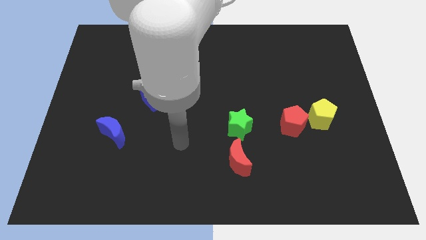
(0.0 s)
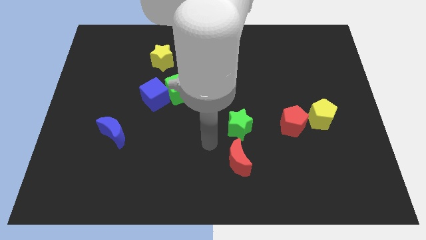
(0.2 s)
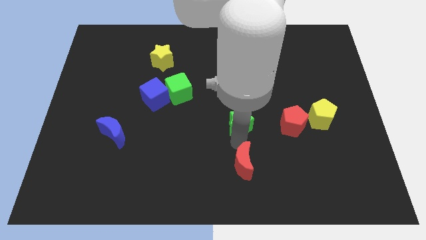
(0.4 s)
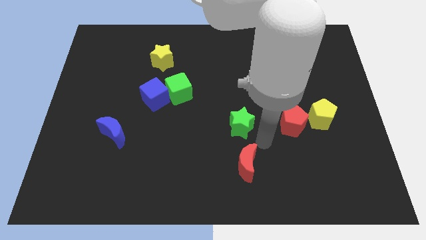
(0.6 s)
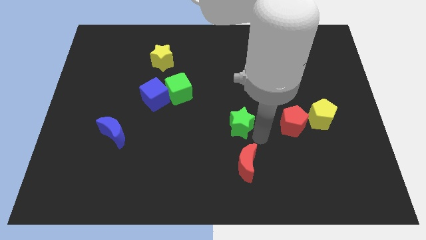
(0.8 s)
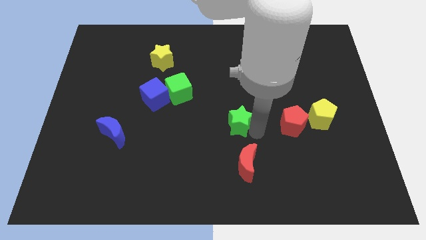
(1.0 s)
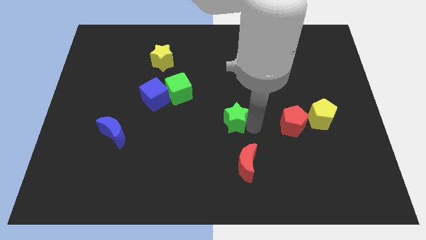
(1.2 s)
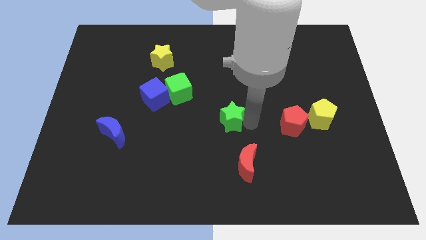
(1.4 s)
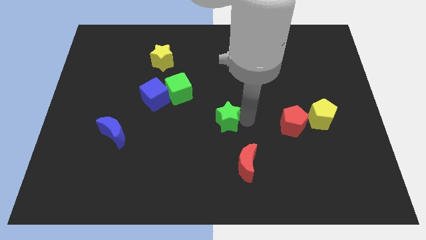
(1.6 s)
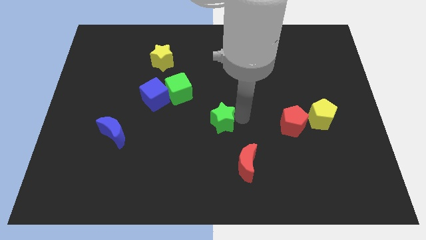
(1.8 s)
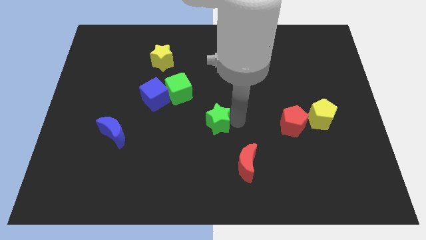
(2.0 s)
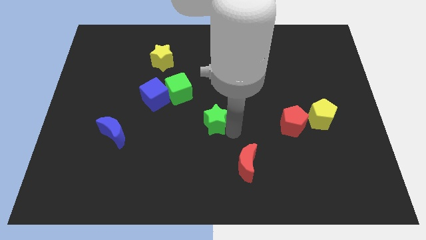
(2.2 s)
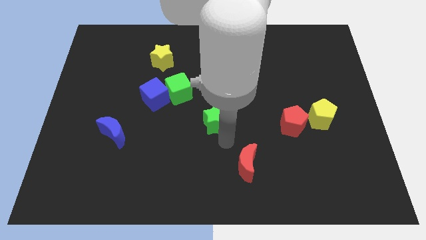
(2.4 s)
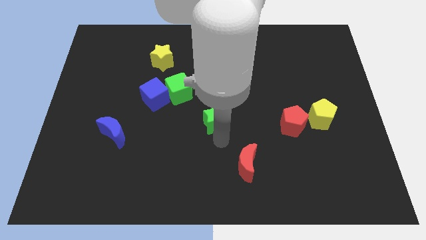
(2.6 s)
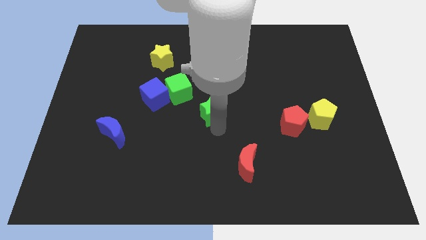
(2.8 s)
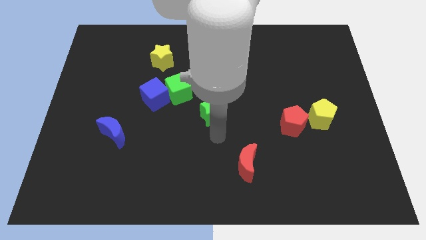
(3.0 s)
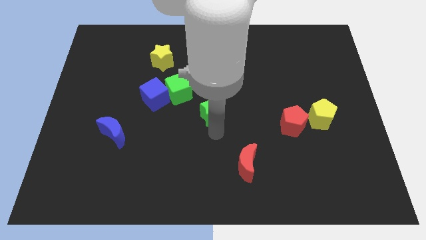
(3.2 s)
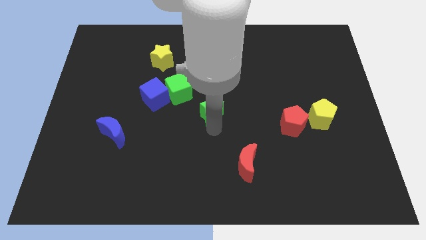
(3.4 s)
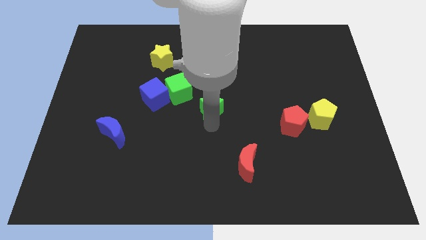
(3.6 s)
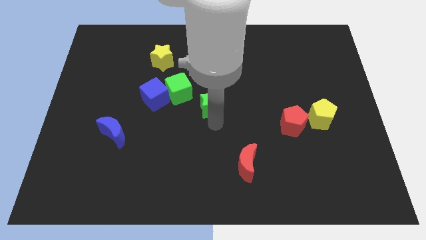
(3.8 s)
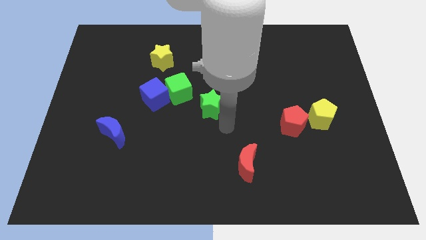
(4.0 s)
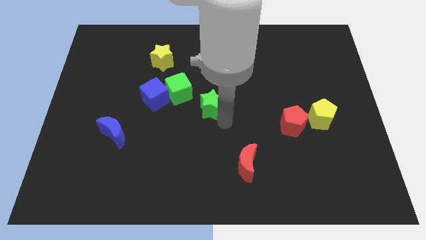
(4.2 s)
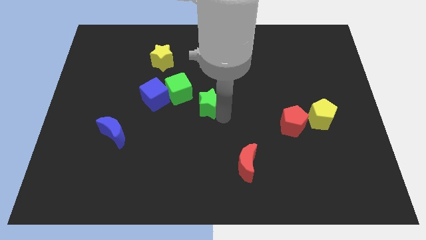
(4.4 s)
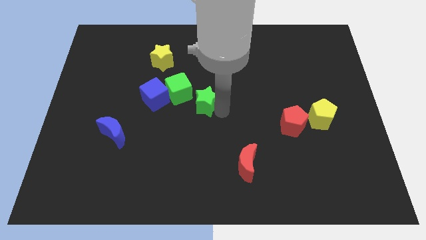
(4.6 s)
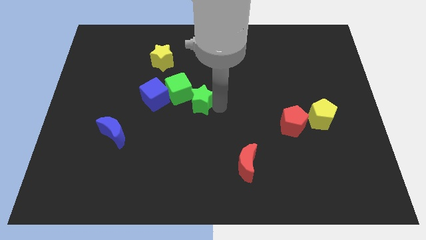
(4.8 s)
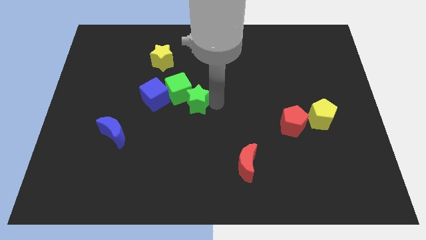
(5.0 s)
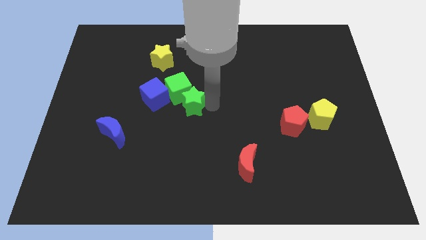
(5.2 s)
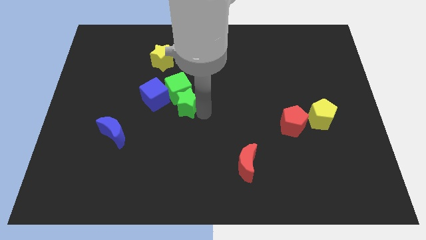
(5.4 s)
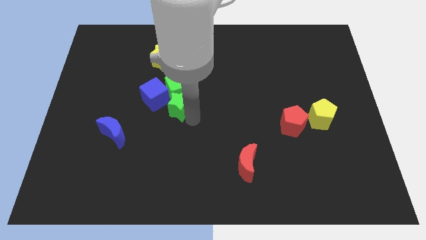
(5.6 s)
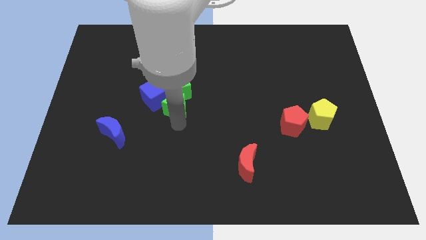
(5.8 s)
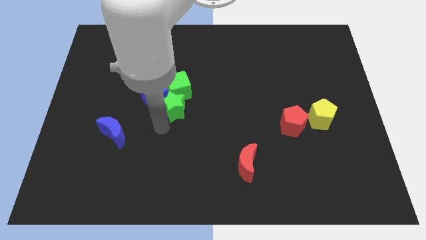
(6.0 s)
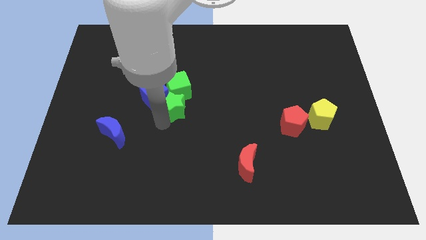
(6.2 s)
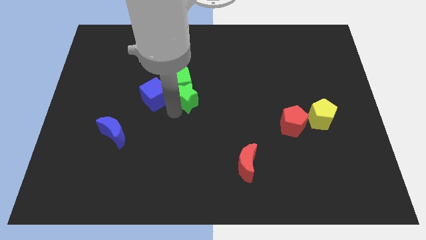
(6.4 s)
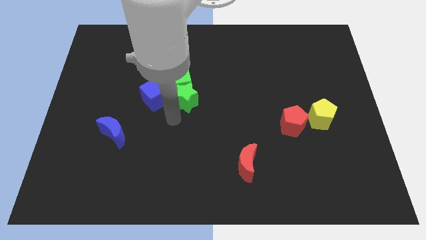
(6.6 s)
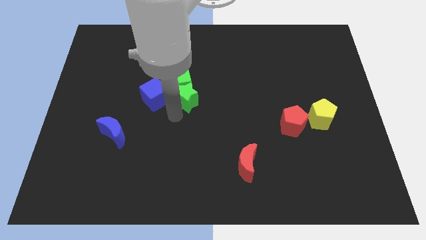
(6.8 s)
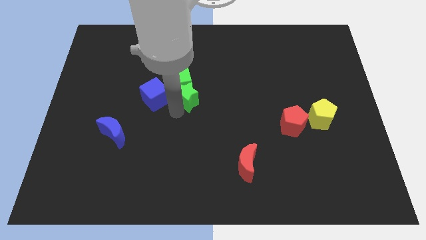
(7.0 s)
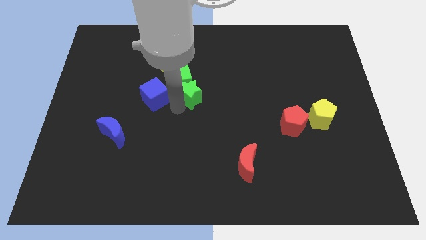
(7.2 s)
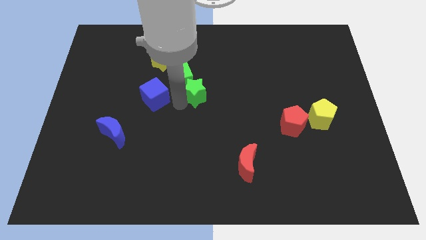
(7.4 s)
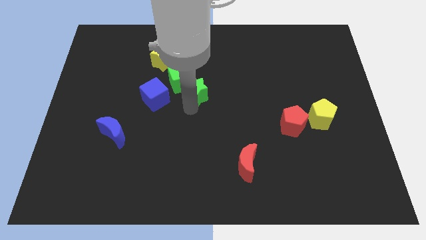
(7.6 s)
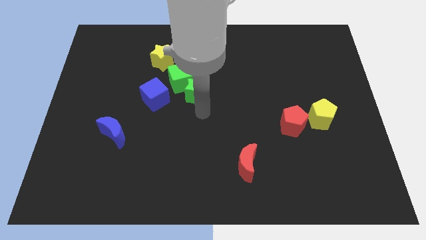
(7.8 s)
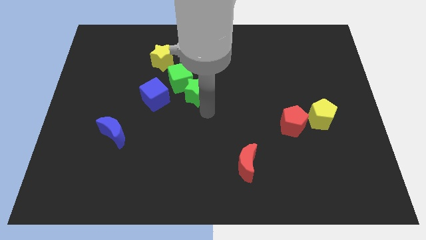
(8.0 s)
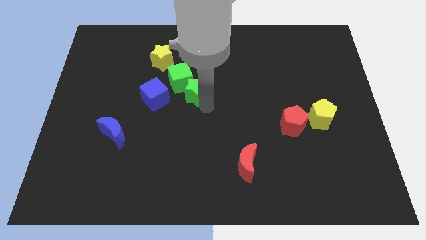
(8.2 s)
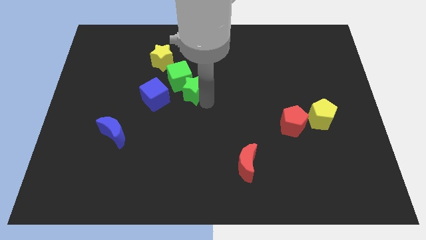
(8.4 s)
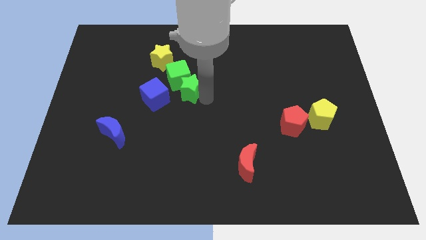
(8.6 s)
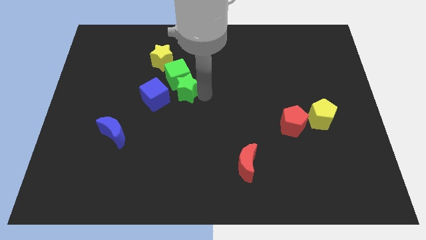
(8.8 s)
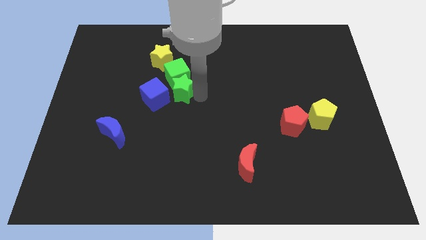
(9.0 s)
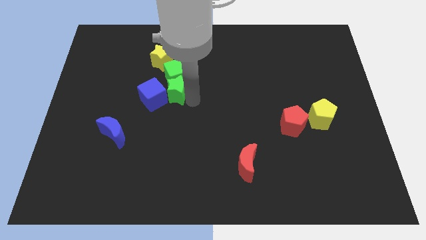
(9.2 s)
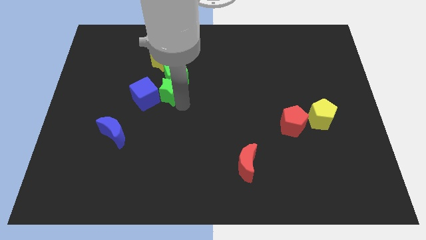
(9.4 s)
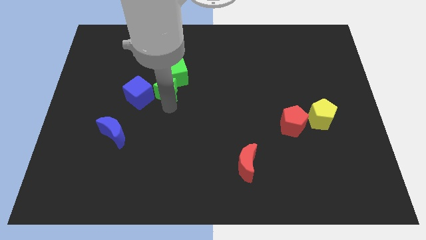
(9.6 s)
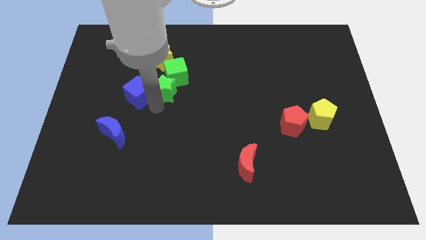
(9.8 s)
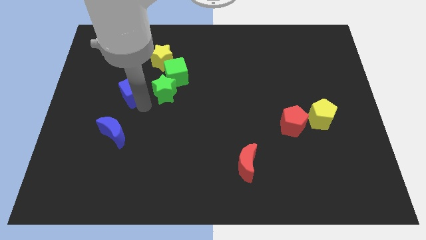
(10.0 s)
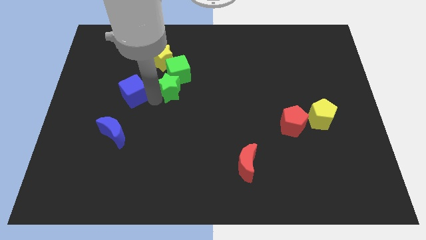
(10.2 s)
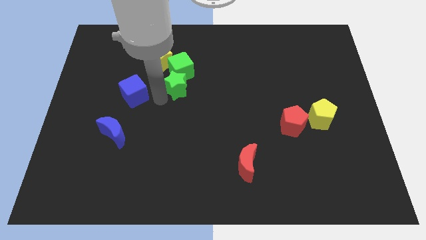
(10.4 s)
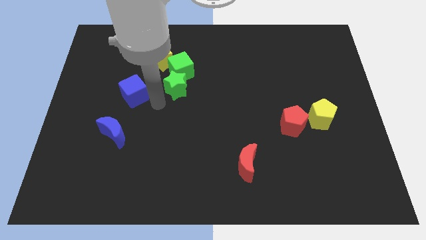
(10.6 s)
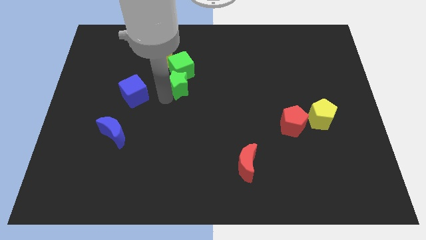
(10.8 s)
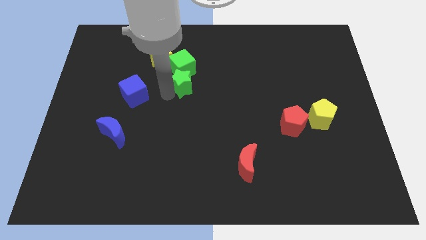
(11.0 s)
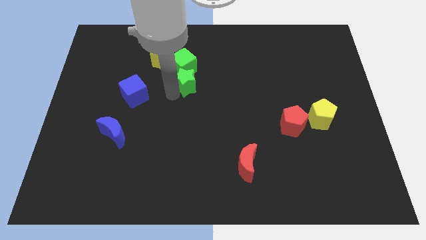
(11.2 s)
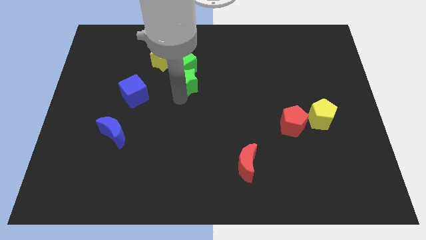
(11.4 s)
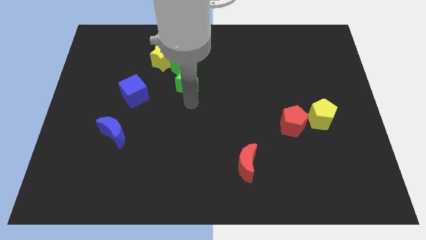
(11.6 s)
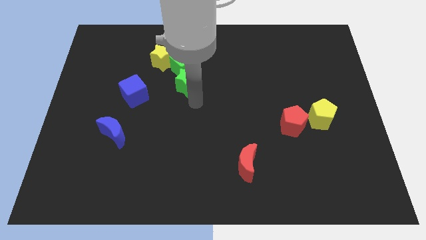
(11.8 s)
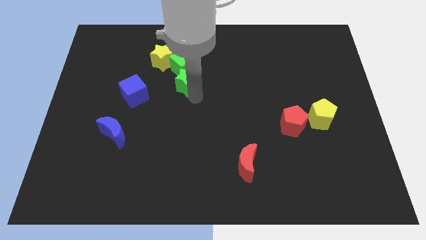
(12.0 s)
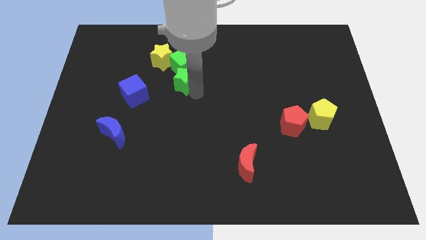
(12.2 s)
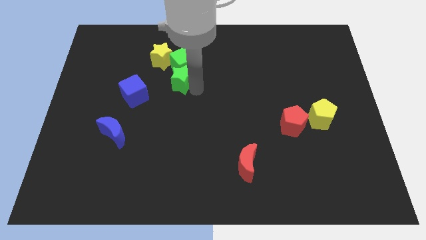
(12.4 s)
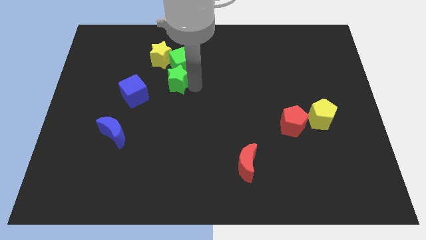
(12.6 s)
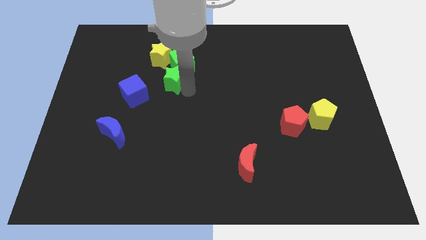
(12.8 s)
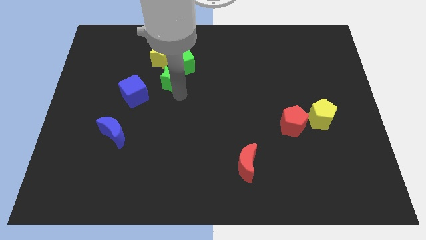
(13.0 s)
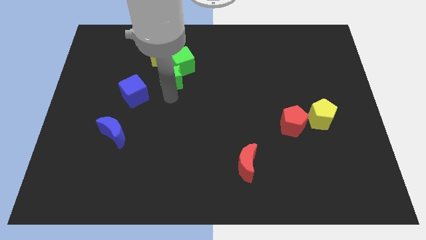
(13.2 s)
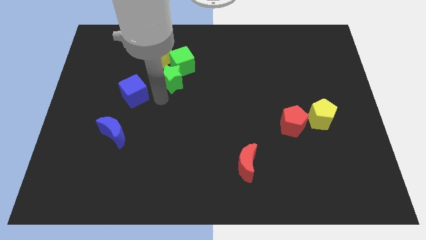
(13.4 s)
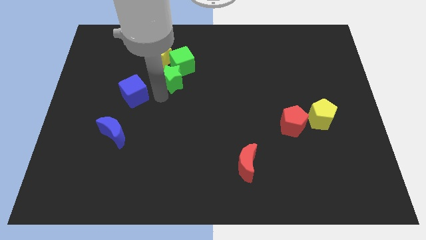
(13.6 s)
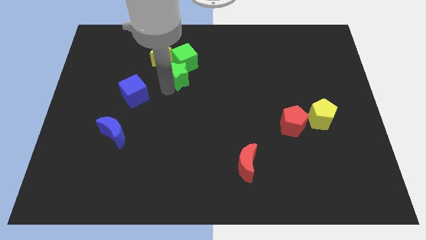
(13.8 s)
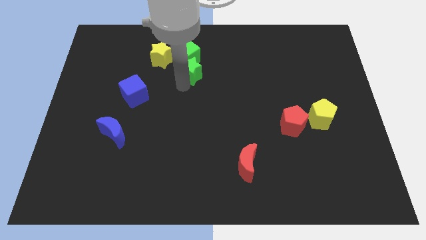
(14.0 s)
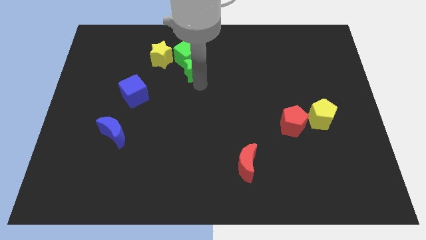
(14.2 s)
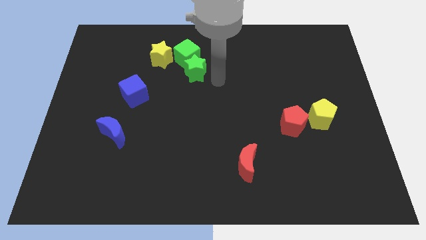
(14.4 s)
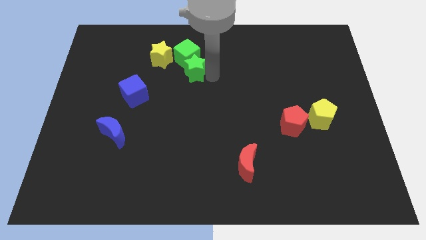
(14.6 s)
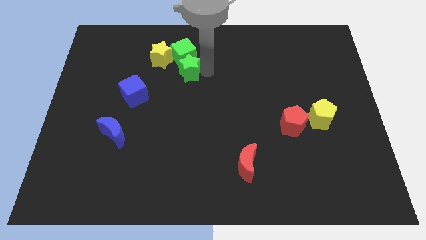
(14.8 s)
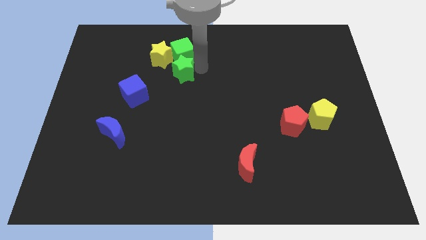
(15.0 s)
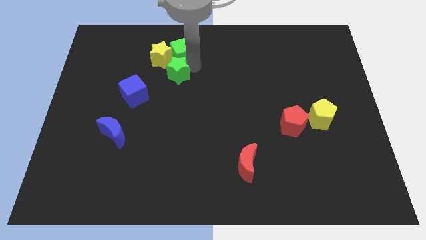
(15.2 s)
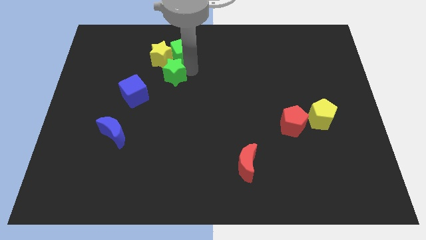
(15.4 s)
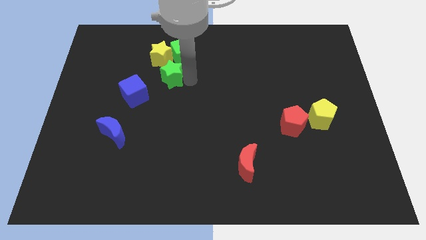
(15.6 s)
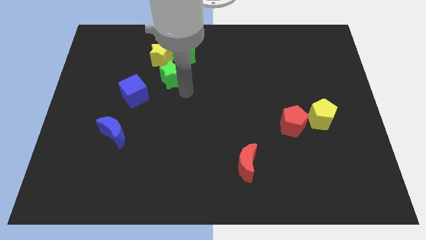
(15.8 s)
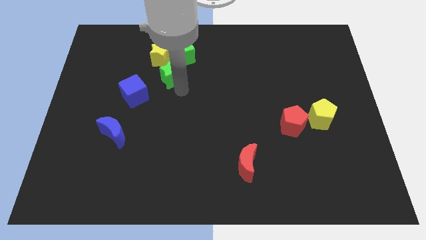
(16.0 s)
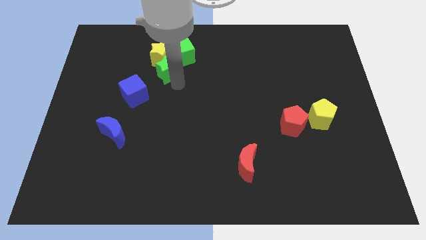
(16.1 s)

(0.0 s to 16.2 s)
put the green star towards the yellow star
